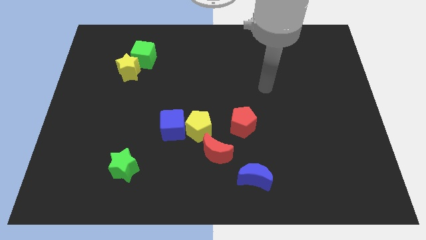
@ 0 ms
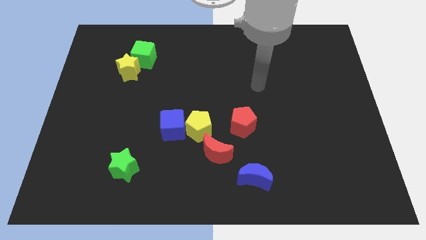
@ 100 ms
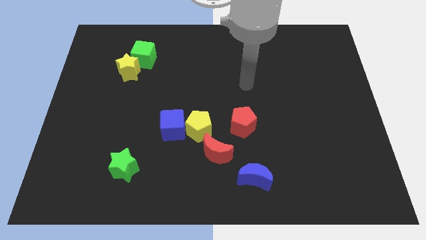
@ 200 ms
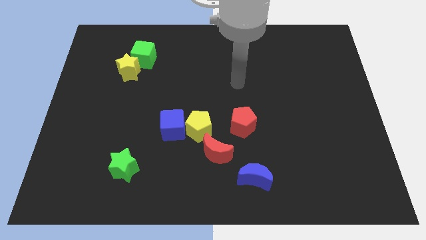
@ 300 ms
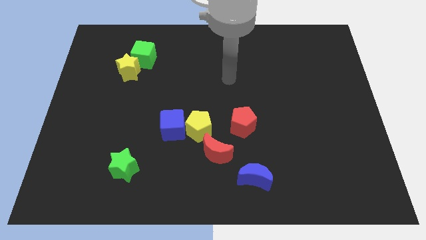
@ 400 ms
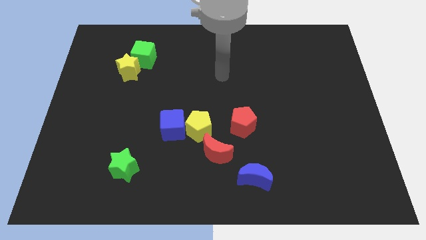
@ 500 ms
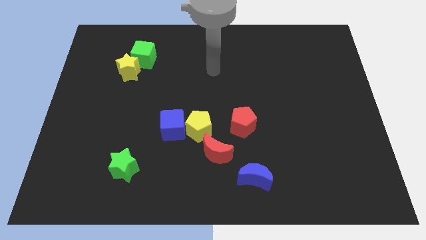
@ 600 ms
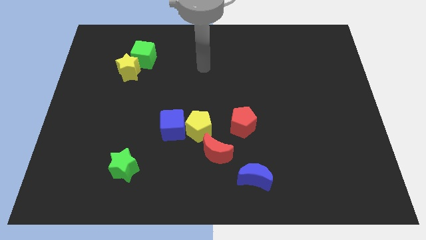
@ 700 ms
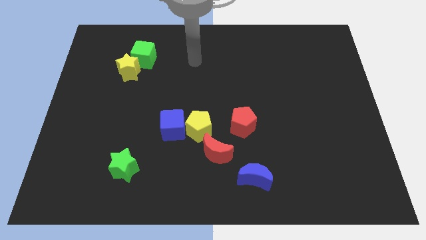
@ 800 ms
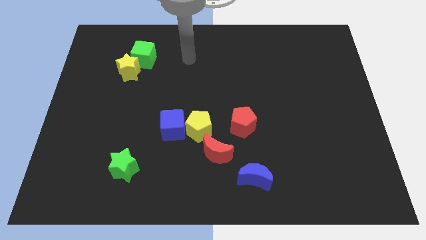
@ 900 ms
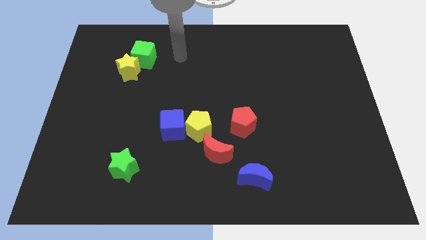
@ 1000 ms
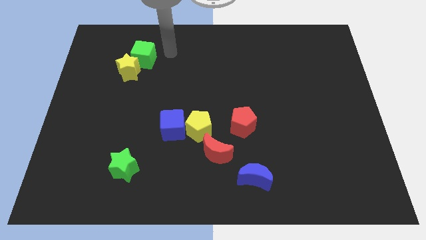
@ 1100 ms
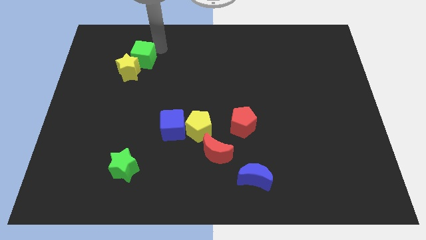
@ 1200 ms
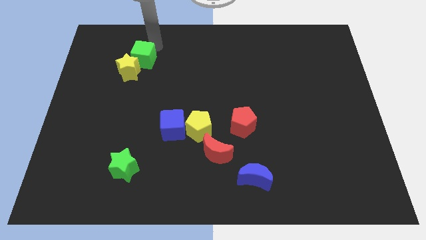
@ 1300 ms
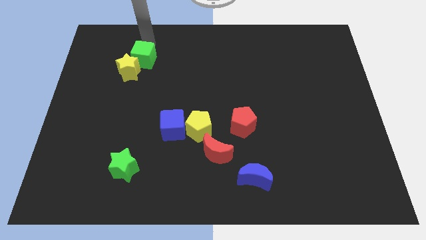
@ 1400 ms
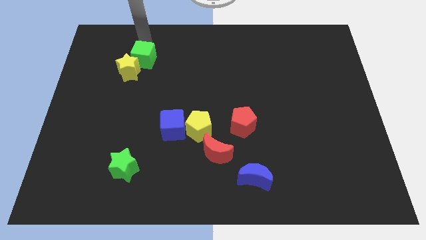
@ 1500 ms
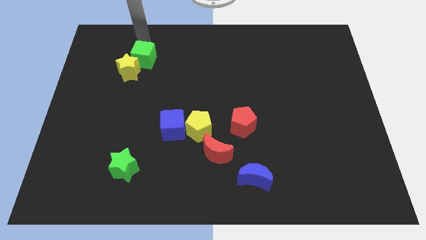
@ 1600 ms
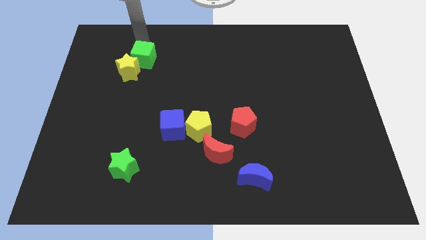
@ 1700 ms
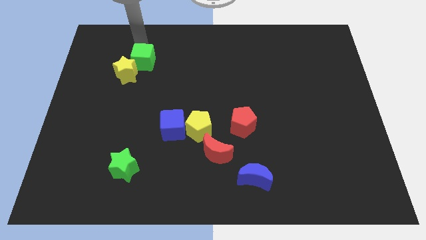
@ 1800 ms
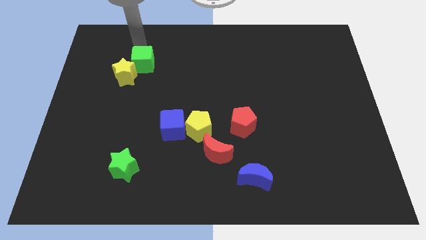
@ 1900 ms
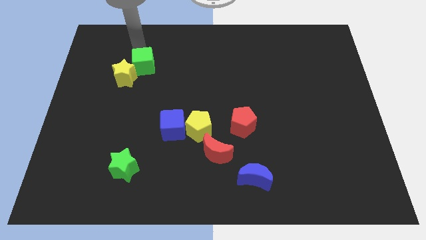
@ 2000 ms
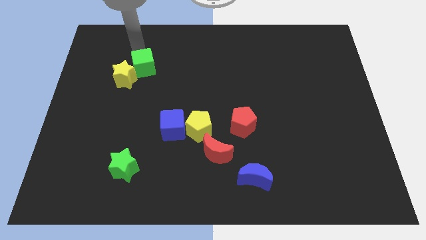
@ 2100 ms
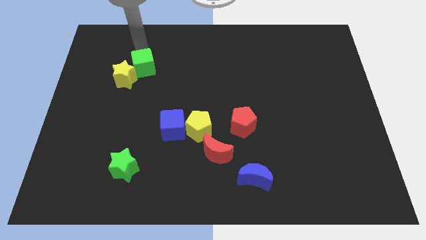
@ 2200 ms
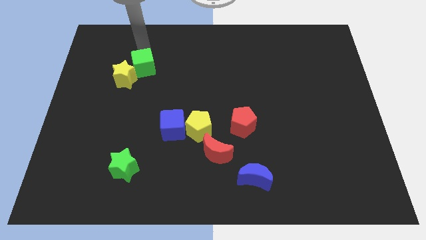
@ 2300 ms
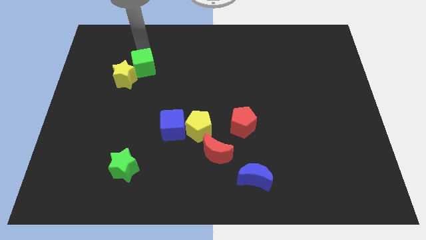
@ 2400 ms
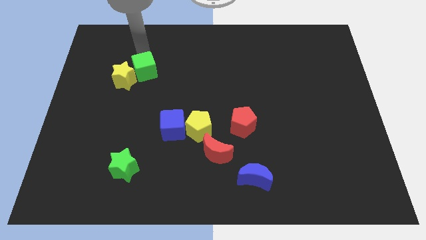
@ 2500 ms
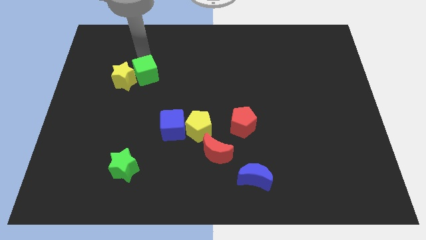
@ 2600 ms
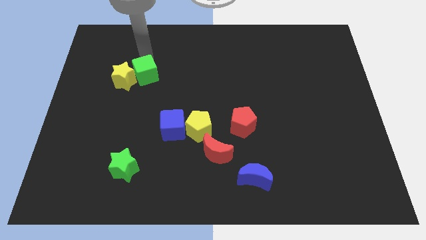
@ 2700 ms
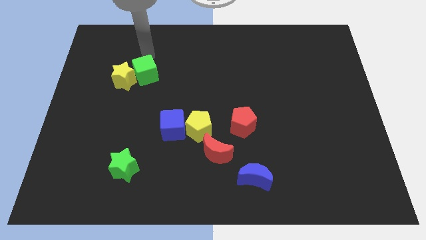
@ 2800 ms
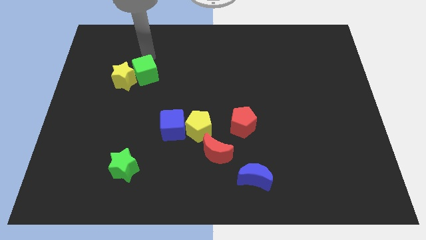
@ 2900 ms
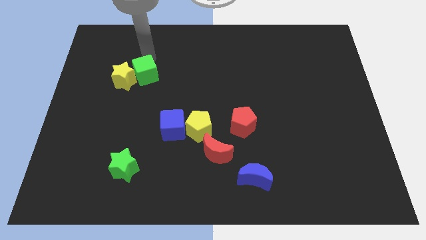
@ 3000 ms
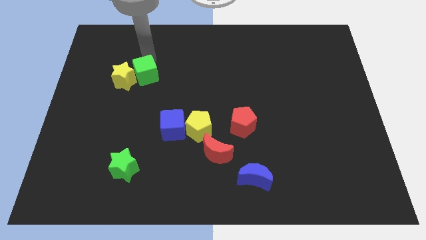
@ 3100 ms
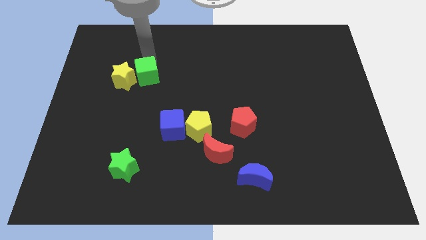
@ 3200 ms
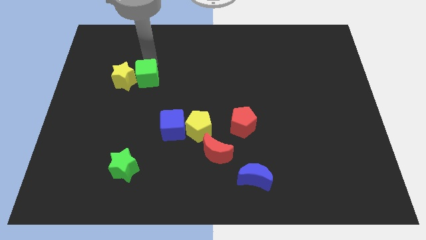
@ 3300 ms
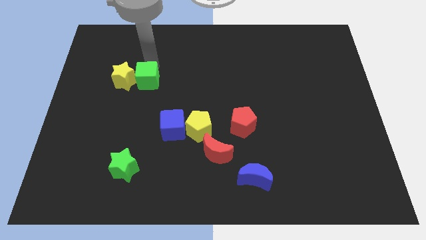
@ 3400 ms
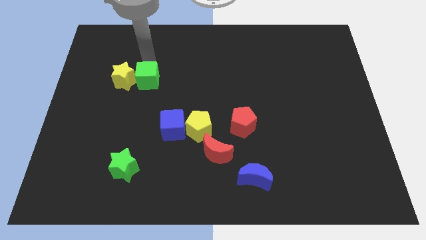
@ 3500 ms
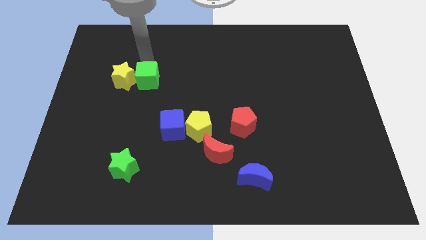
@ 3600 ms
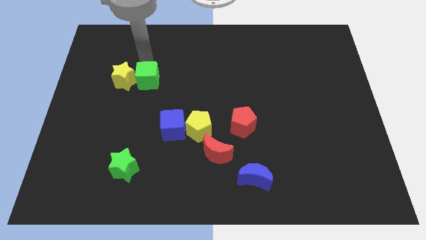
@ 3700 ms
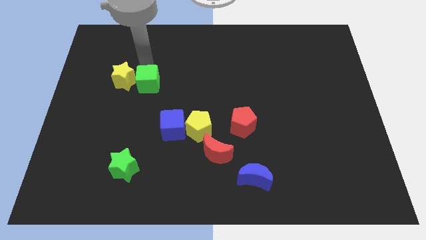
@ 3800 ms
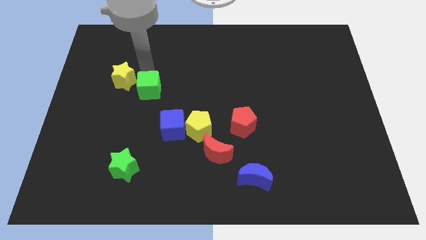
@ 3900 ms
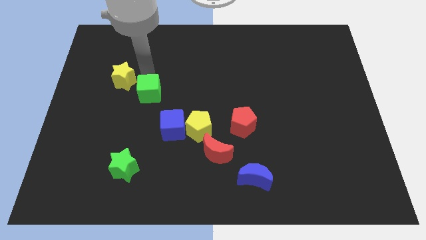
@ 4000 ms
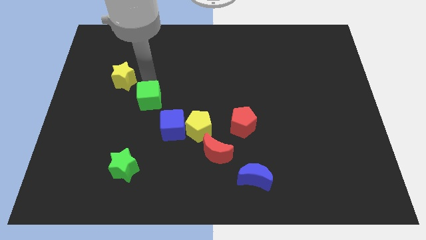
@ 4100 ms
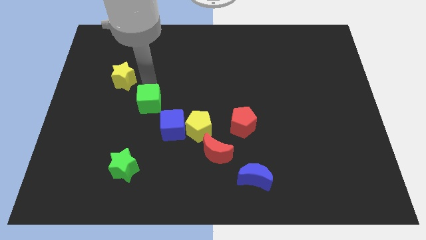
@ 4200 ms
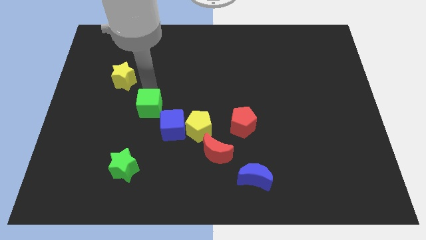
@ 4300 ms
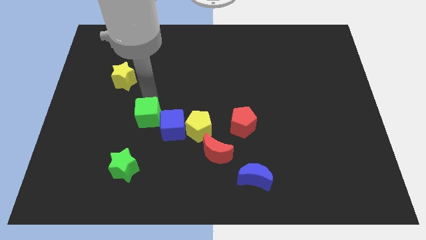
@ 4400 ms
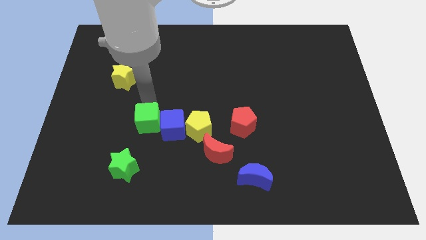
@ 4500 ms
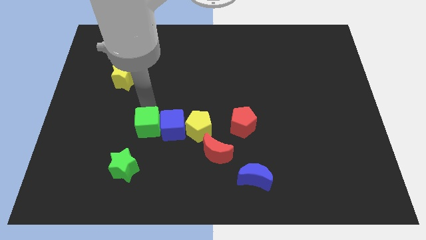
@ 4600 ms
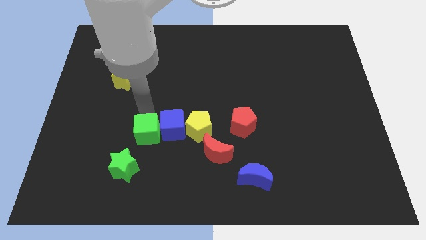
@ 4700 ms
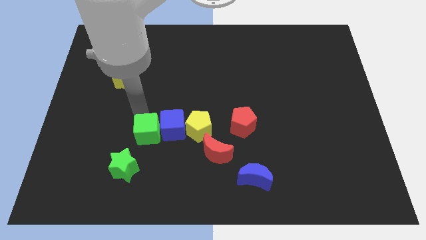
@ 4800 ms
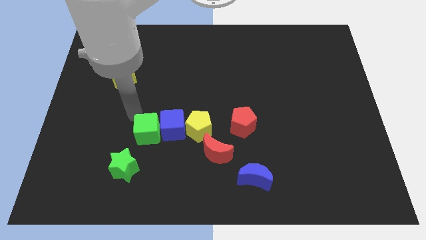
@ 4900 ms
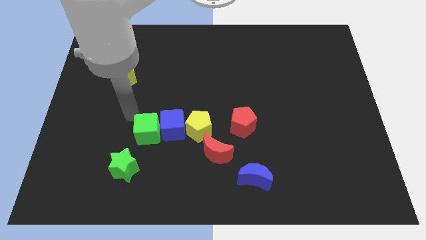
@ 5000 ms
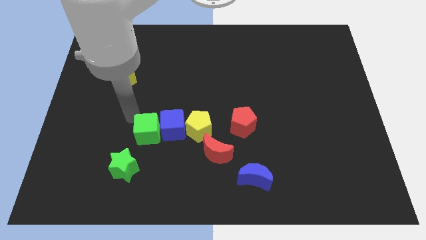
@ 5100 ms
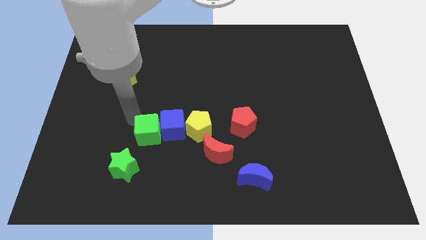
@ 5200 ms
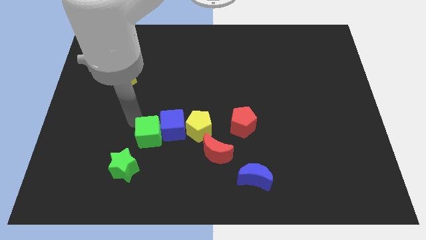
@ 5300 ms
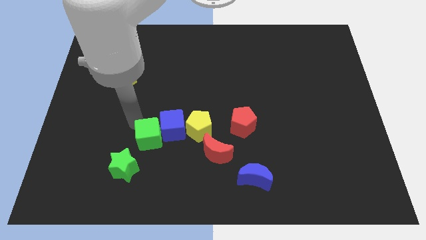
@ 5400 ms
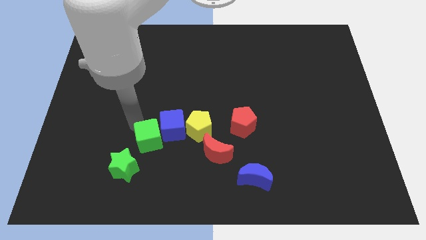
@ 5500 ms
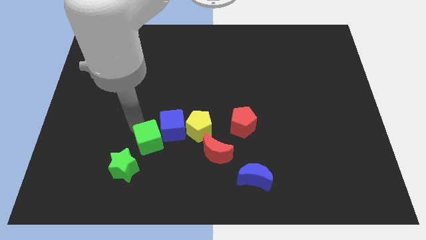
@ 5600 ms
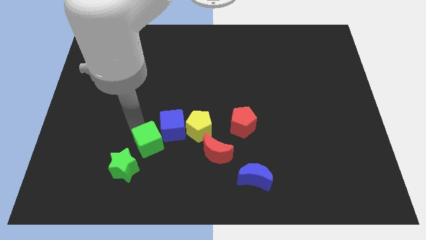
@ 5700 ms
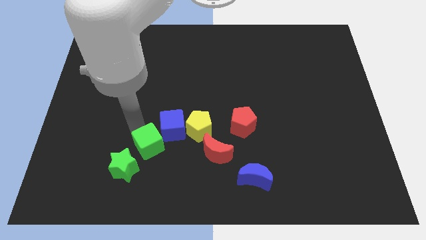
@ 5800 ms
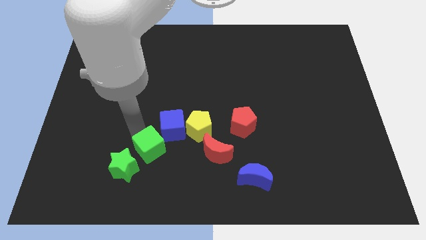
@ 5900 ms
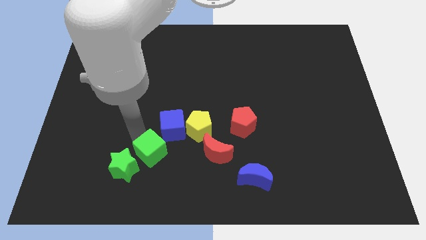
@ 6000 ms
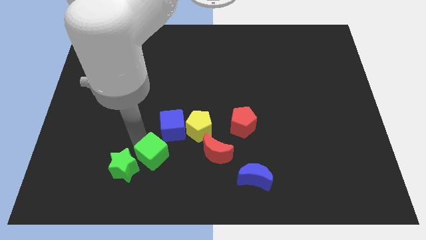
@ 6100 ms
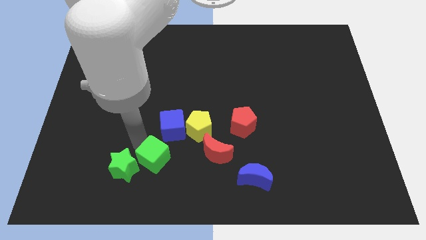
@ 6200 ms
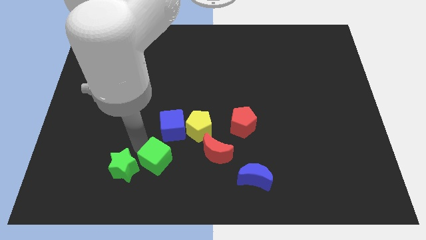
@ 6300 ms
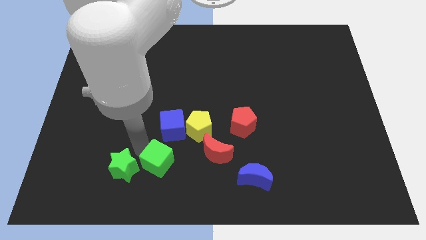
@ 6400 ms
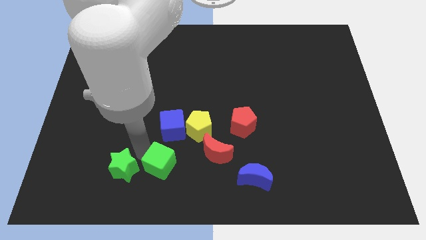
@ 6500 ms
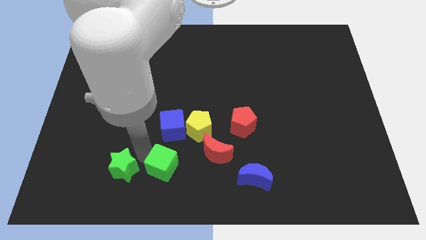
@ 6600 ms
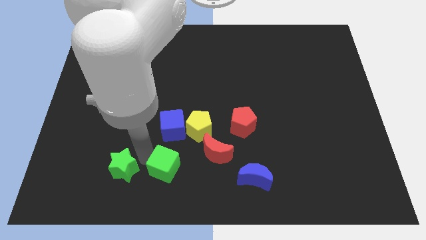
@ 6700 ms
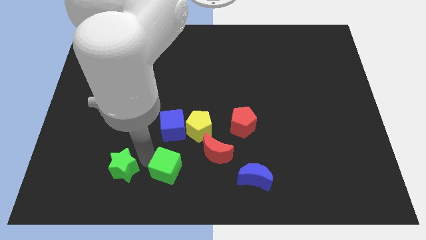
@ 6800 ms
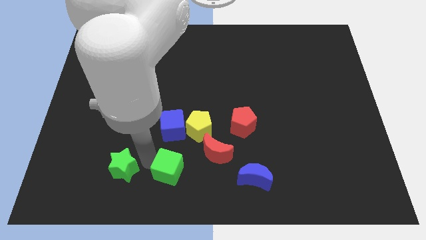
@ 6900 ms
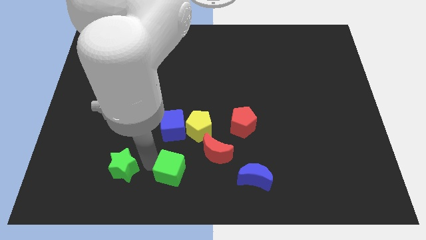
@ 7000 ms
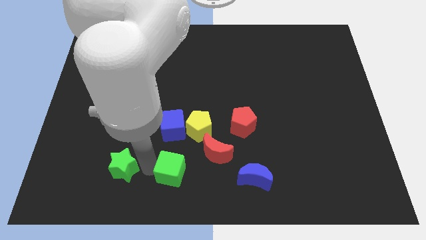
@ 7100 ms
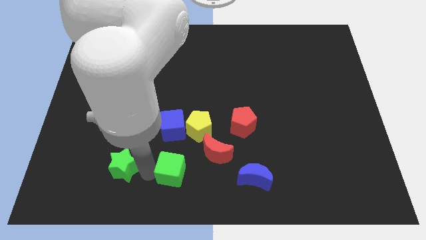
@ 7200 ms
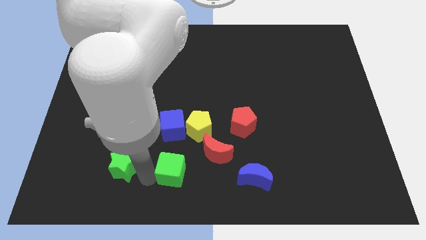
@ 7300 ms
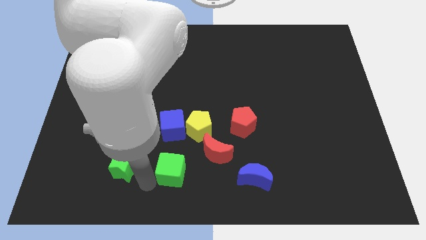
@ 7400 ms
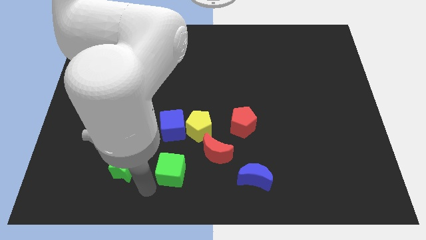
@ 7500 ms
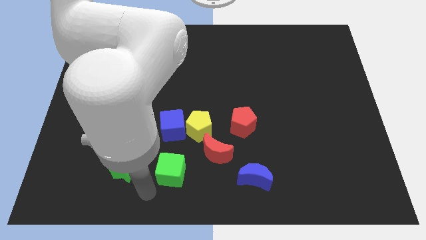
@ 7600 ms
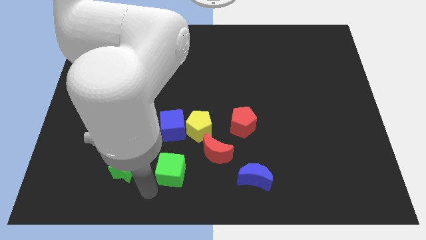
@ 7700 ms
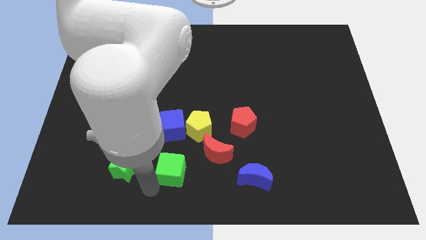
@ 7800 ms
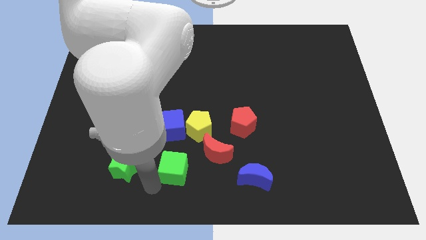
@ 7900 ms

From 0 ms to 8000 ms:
slide the green cube below the yellow pentagon
